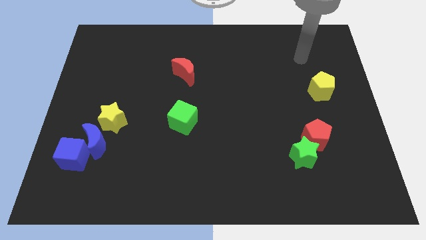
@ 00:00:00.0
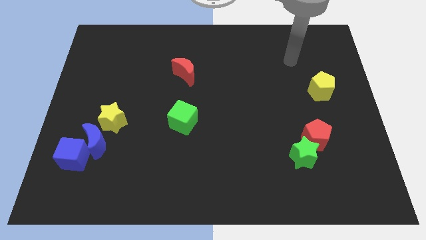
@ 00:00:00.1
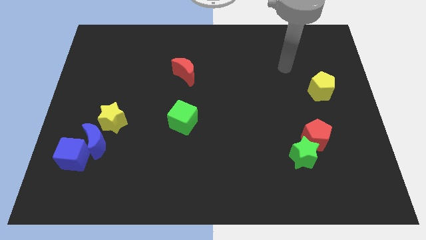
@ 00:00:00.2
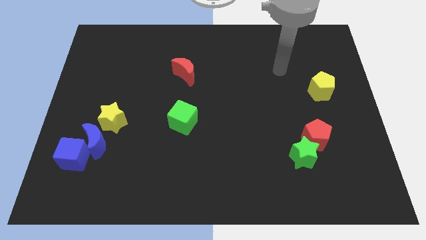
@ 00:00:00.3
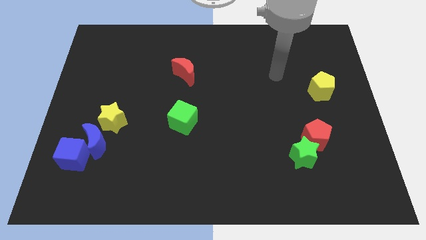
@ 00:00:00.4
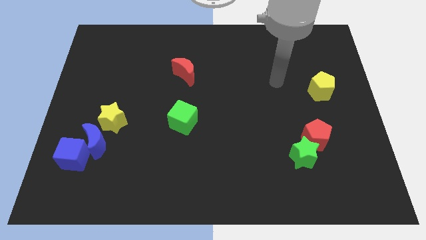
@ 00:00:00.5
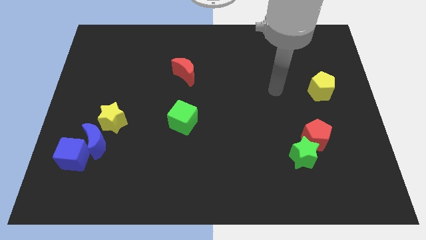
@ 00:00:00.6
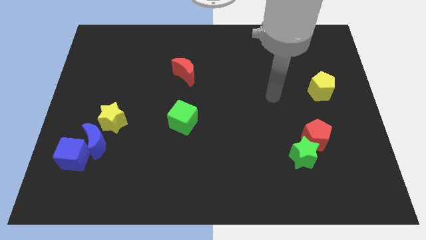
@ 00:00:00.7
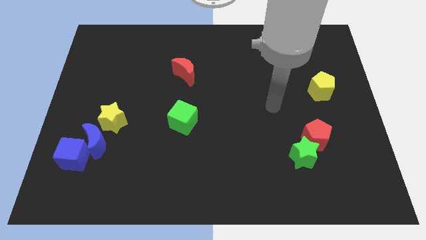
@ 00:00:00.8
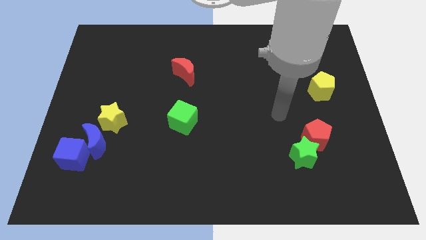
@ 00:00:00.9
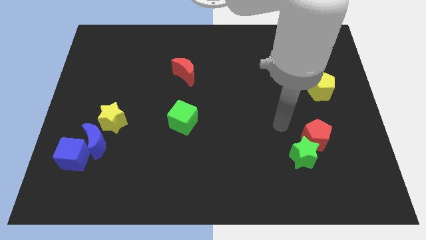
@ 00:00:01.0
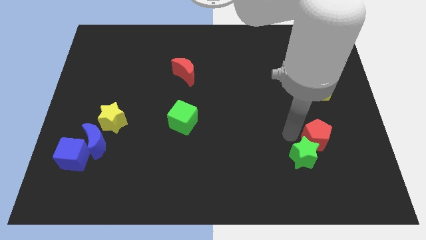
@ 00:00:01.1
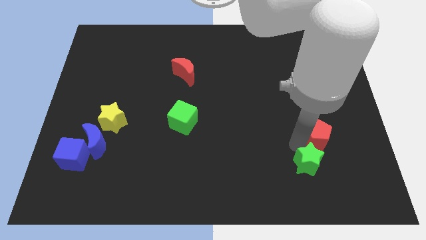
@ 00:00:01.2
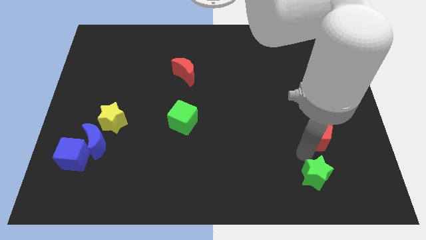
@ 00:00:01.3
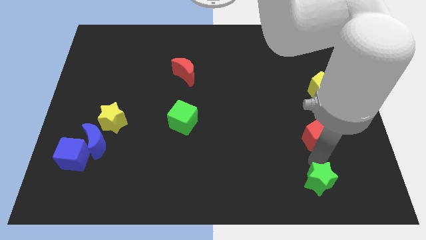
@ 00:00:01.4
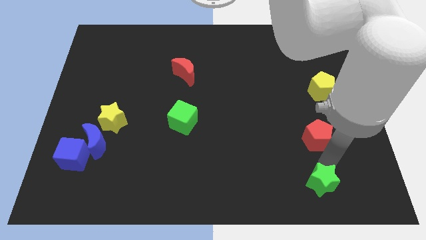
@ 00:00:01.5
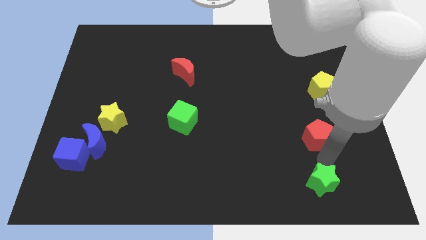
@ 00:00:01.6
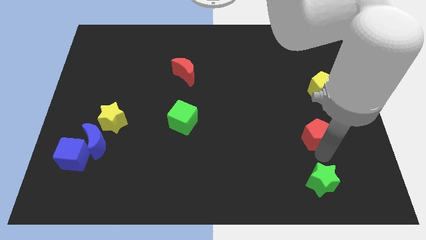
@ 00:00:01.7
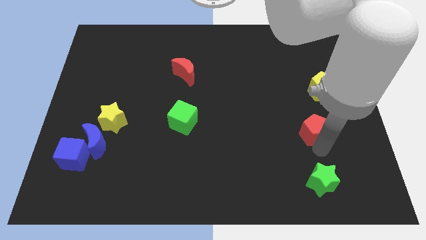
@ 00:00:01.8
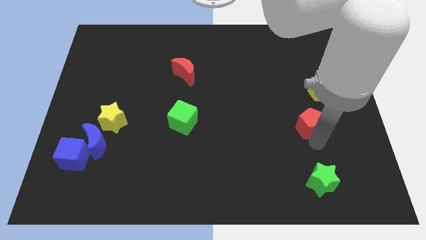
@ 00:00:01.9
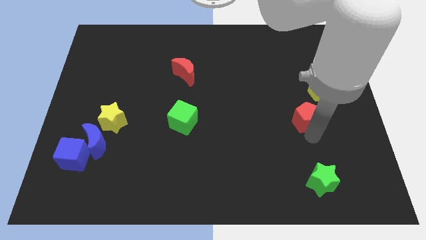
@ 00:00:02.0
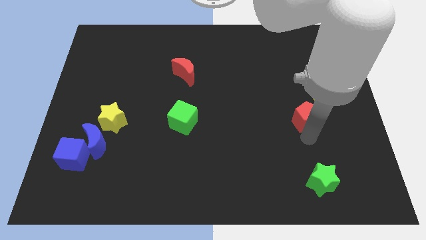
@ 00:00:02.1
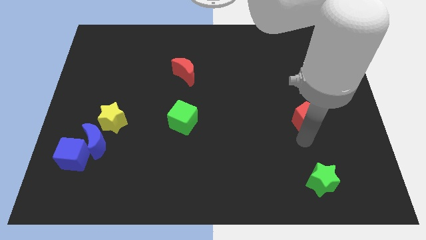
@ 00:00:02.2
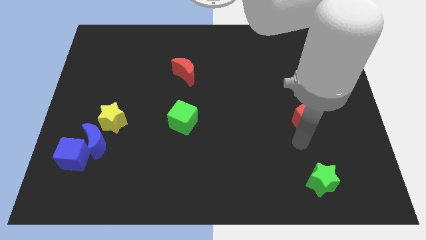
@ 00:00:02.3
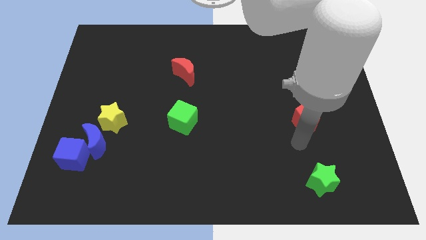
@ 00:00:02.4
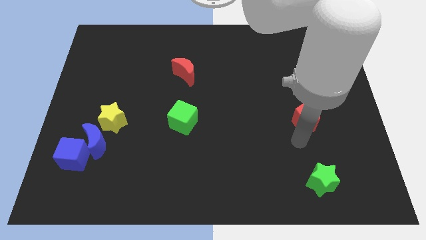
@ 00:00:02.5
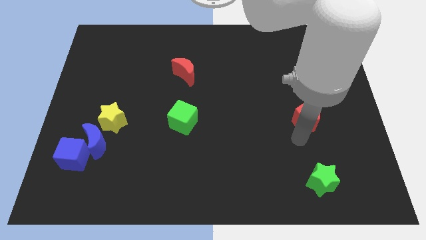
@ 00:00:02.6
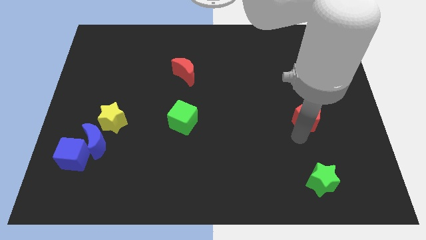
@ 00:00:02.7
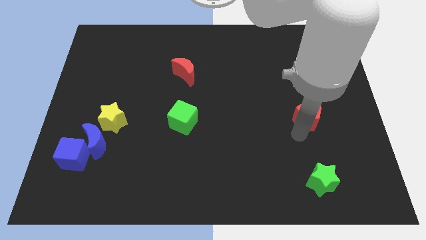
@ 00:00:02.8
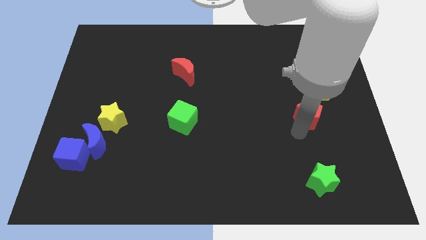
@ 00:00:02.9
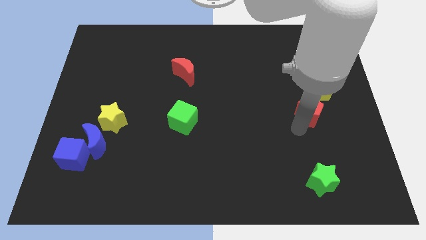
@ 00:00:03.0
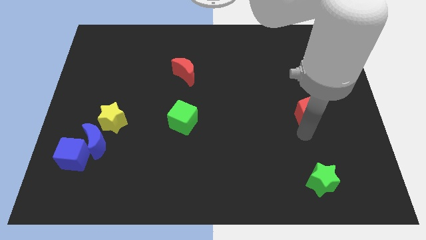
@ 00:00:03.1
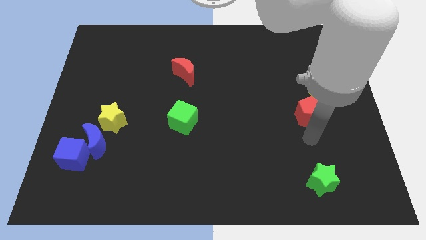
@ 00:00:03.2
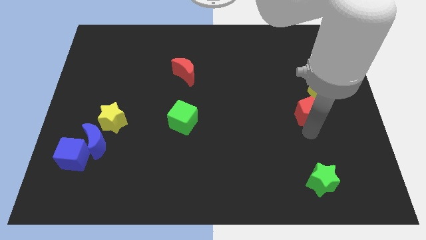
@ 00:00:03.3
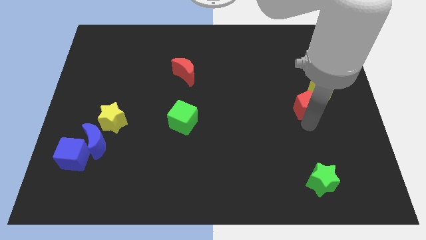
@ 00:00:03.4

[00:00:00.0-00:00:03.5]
slide the red pentagon a bit upwards

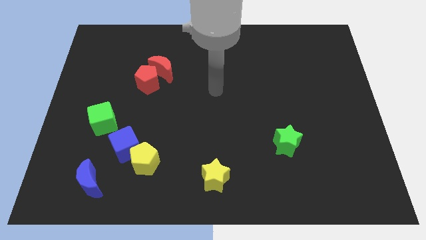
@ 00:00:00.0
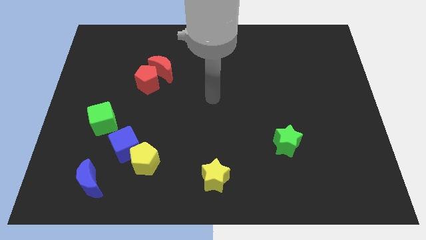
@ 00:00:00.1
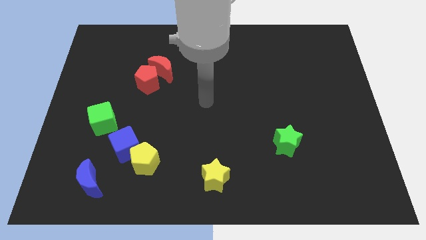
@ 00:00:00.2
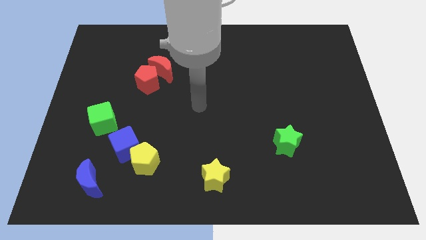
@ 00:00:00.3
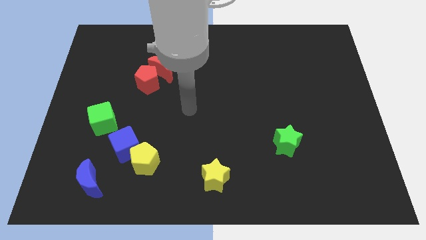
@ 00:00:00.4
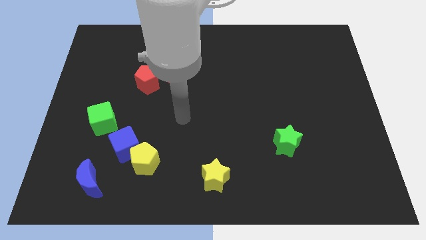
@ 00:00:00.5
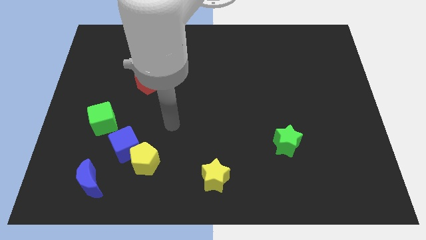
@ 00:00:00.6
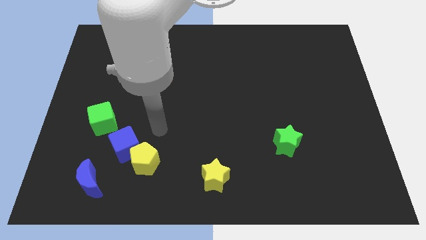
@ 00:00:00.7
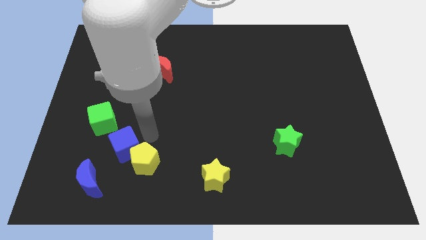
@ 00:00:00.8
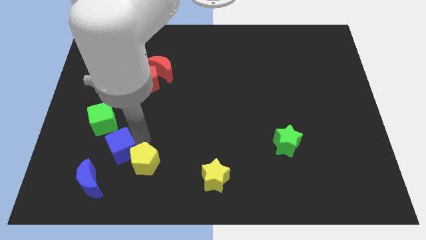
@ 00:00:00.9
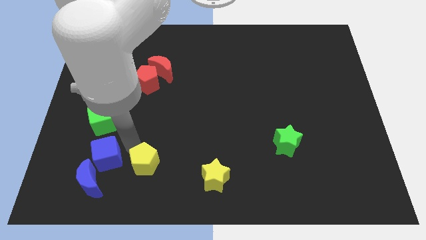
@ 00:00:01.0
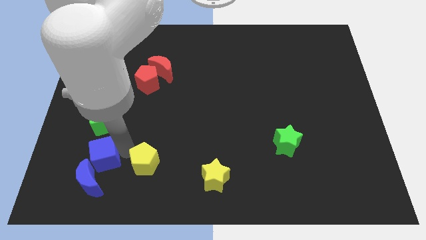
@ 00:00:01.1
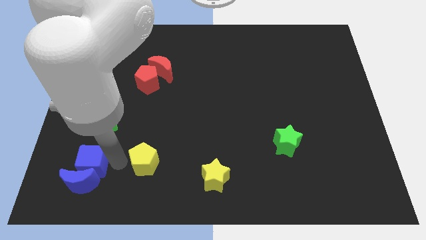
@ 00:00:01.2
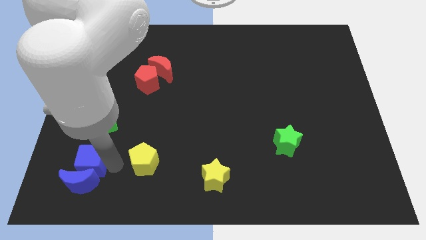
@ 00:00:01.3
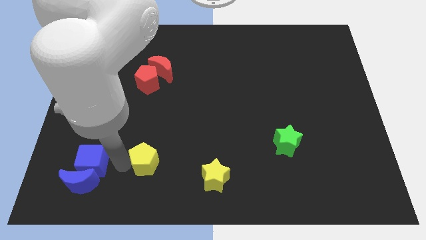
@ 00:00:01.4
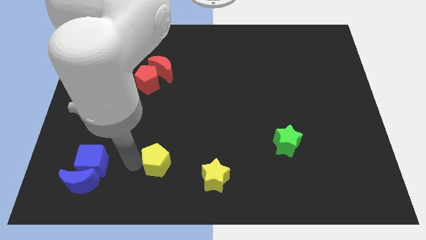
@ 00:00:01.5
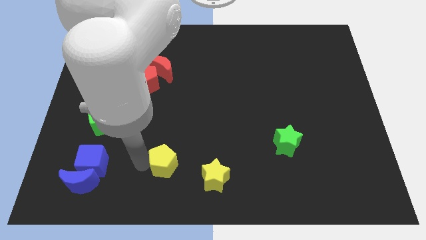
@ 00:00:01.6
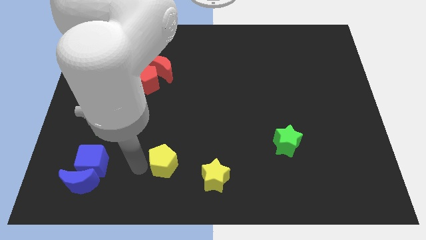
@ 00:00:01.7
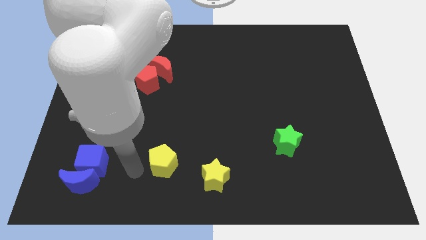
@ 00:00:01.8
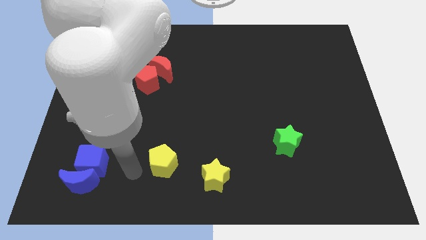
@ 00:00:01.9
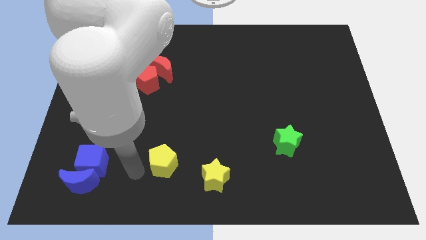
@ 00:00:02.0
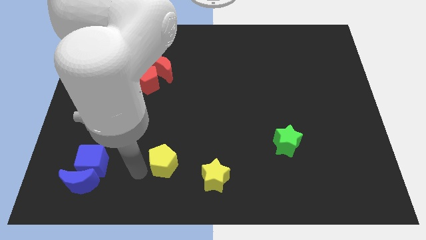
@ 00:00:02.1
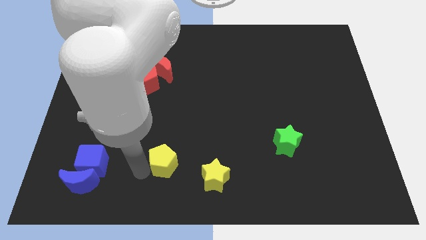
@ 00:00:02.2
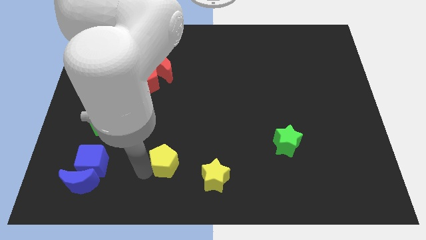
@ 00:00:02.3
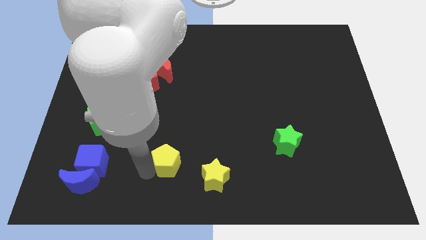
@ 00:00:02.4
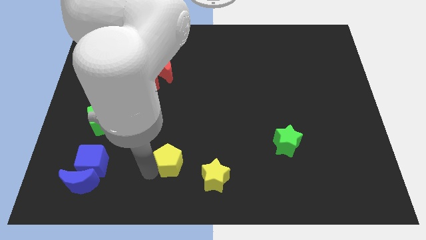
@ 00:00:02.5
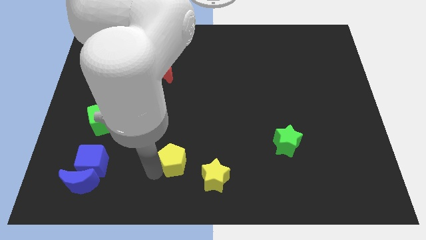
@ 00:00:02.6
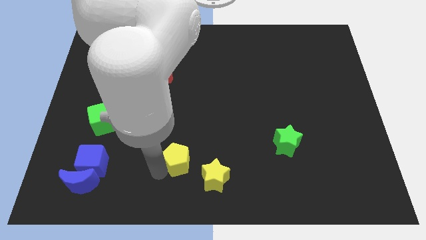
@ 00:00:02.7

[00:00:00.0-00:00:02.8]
move the yellow pentagon somewhat right

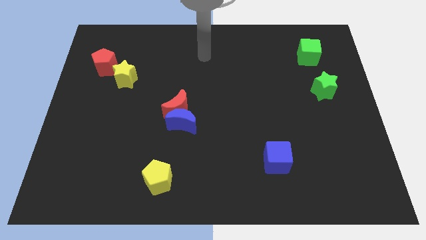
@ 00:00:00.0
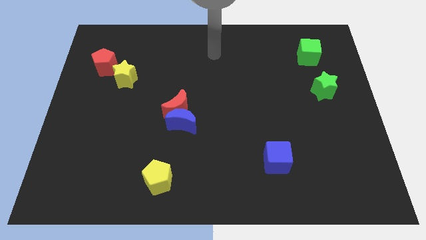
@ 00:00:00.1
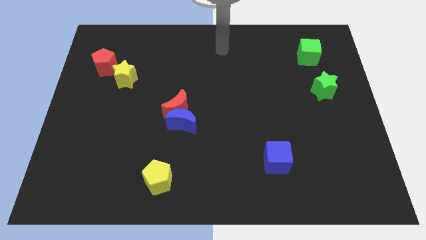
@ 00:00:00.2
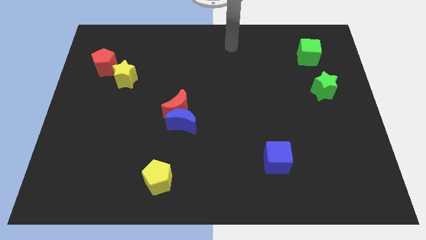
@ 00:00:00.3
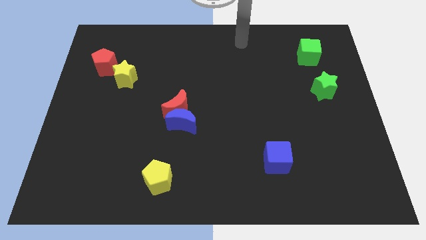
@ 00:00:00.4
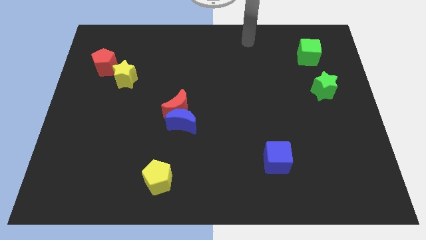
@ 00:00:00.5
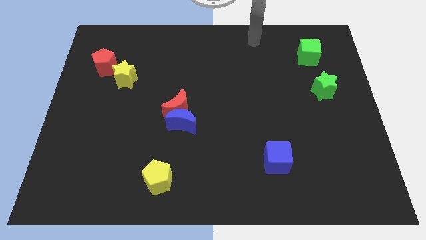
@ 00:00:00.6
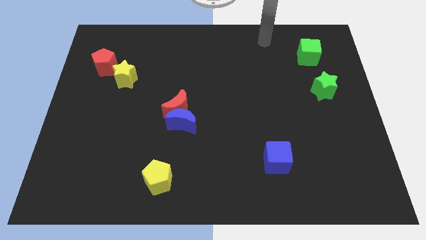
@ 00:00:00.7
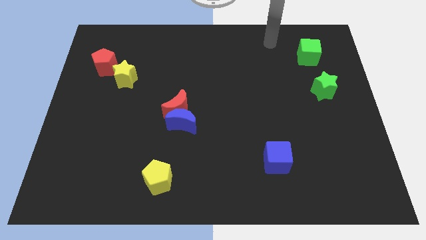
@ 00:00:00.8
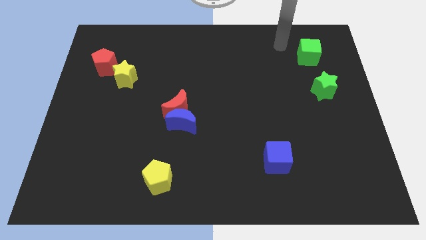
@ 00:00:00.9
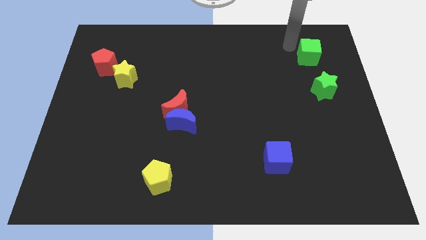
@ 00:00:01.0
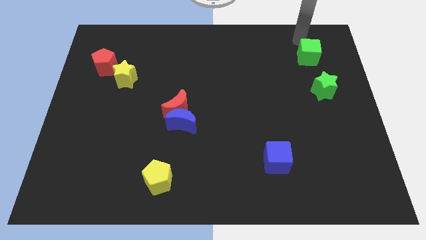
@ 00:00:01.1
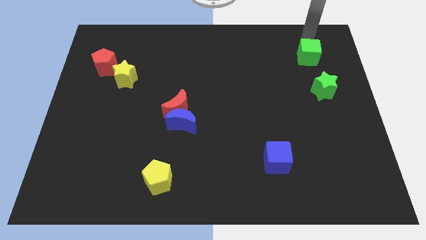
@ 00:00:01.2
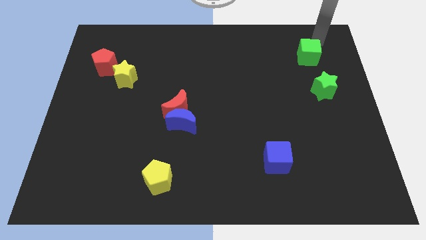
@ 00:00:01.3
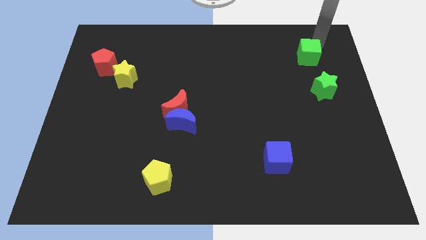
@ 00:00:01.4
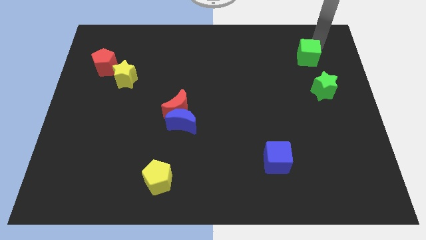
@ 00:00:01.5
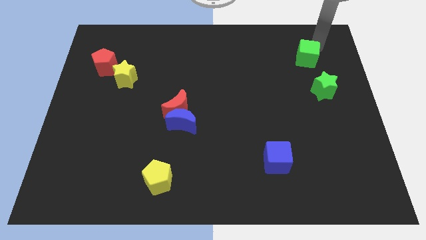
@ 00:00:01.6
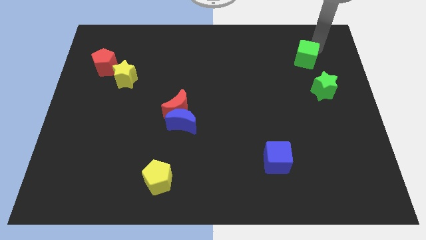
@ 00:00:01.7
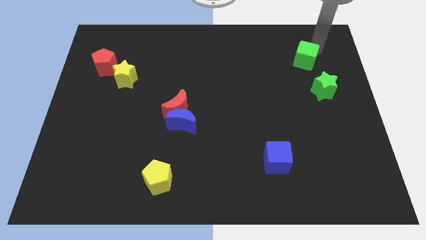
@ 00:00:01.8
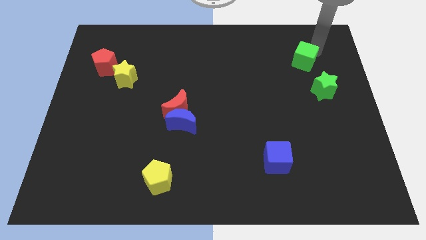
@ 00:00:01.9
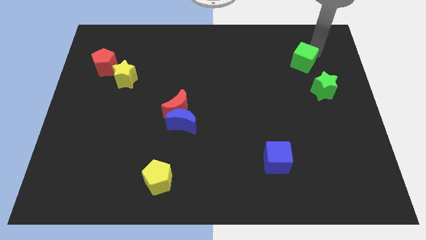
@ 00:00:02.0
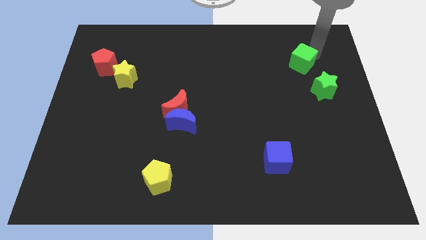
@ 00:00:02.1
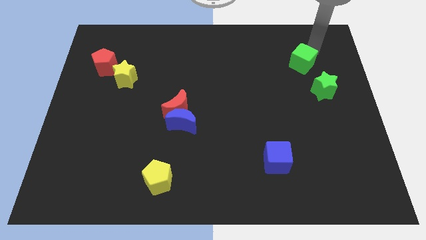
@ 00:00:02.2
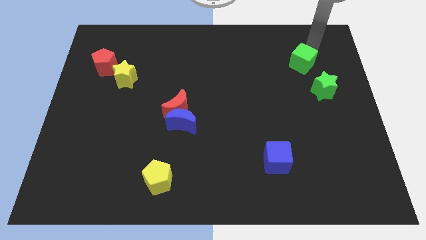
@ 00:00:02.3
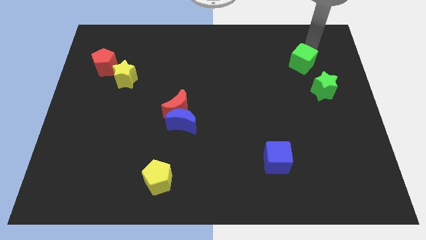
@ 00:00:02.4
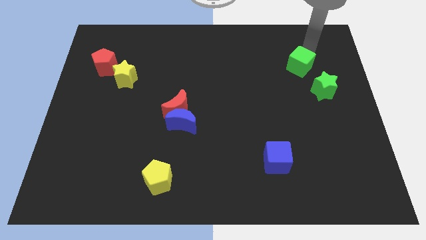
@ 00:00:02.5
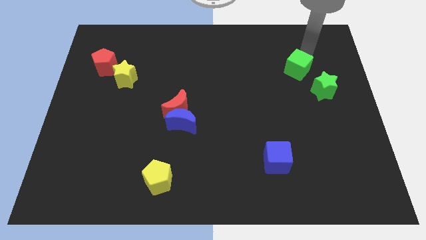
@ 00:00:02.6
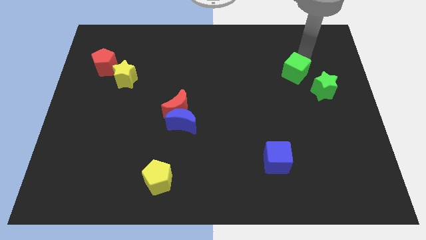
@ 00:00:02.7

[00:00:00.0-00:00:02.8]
move the green cube somewhat diagonally down and to the left
